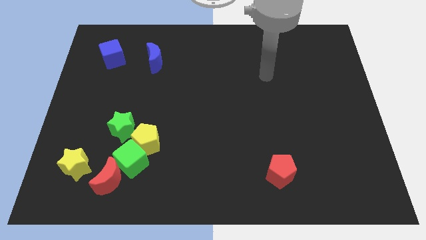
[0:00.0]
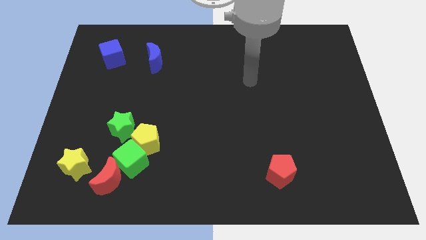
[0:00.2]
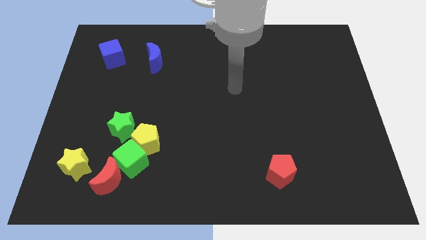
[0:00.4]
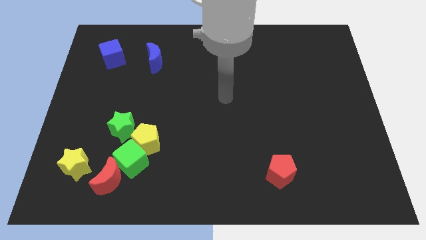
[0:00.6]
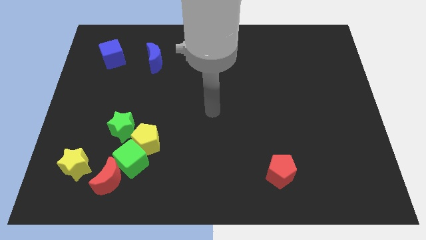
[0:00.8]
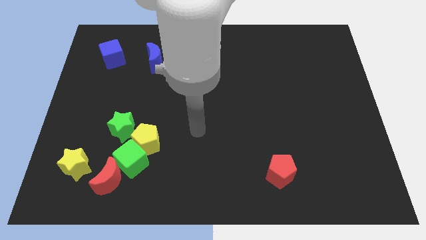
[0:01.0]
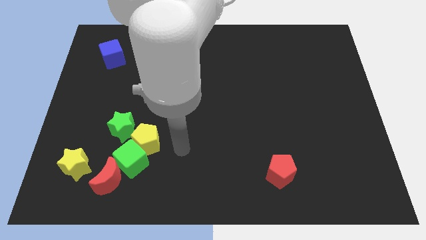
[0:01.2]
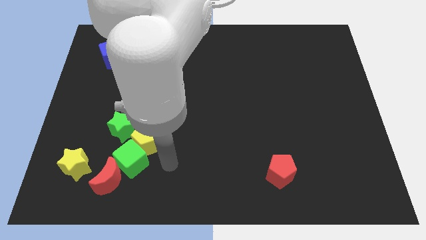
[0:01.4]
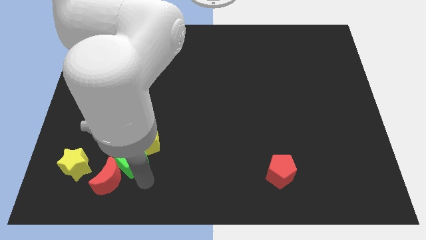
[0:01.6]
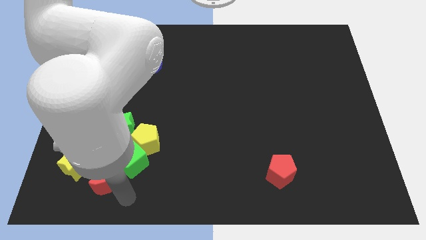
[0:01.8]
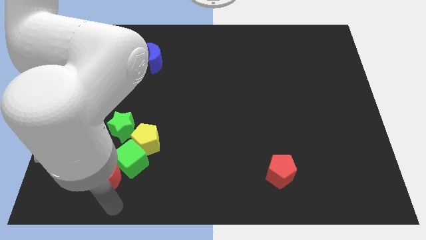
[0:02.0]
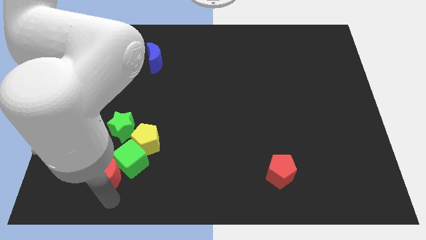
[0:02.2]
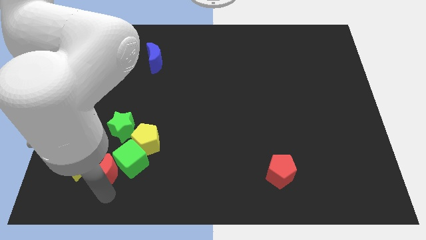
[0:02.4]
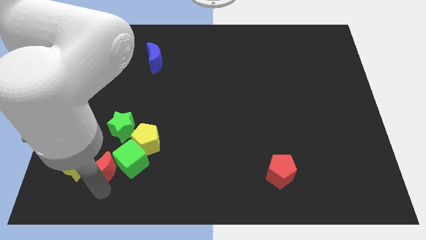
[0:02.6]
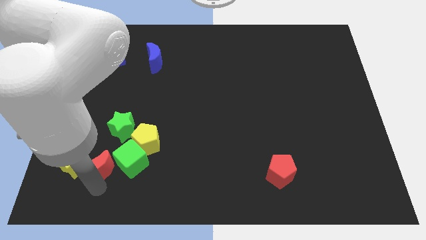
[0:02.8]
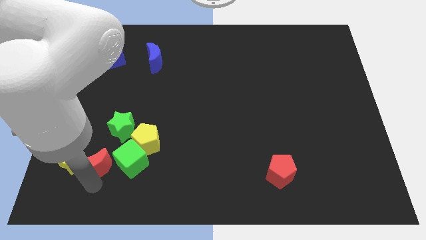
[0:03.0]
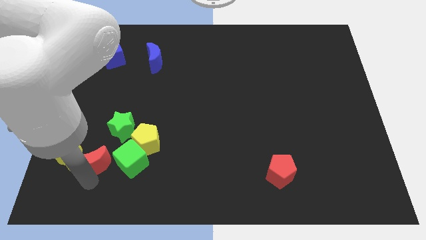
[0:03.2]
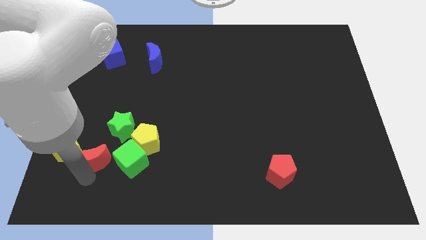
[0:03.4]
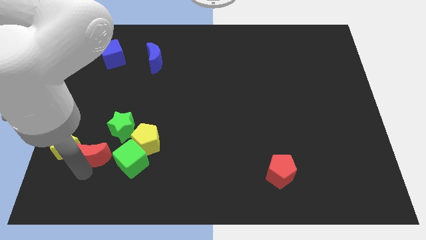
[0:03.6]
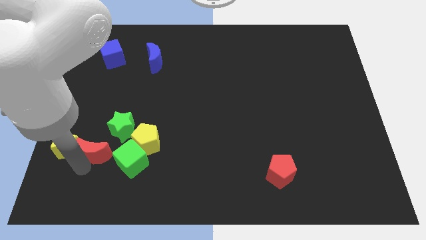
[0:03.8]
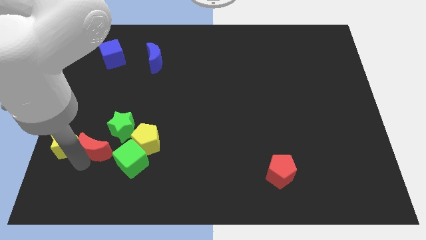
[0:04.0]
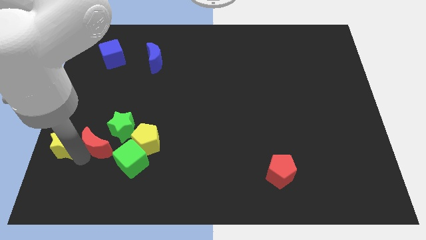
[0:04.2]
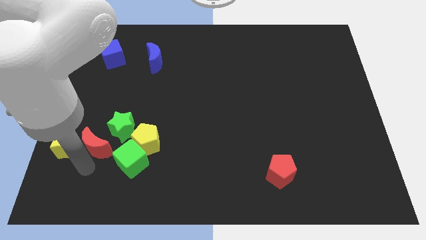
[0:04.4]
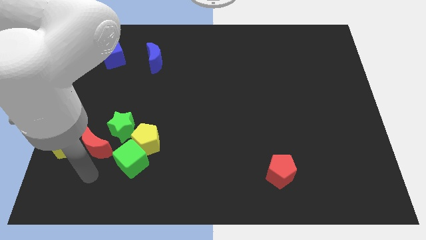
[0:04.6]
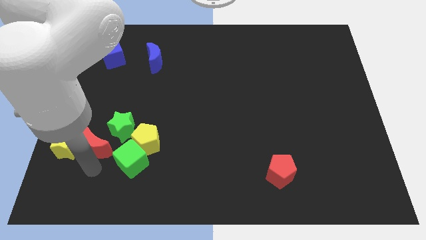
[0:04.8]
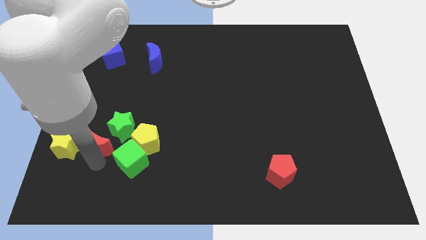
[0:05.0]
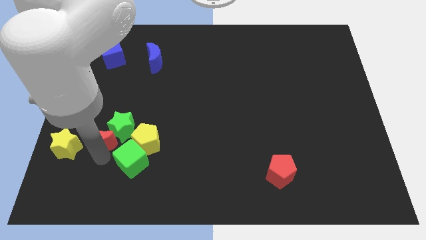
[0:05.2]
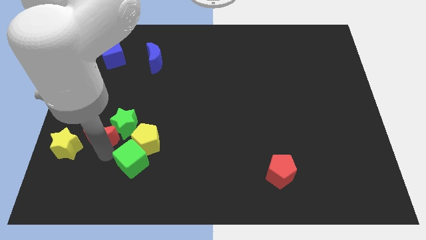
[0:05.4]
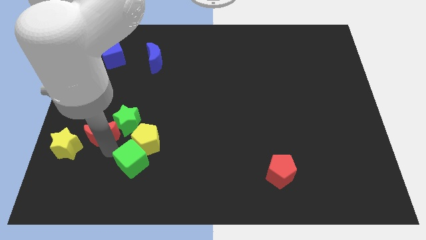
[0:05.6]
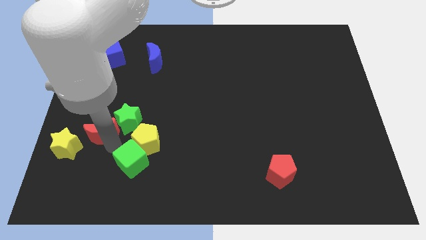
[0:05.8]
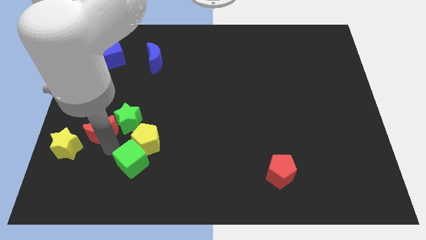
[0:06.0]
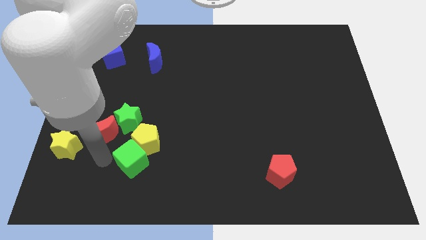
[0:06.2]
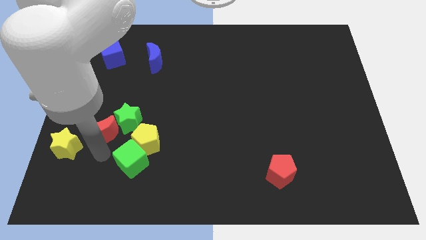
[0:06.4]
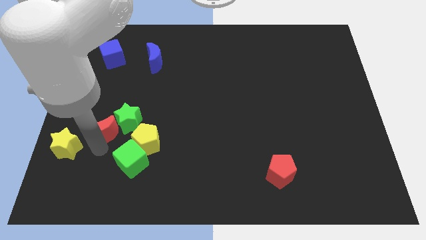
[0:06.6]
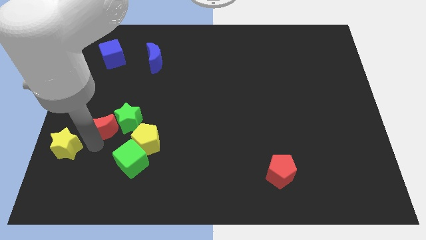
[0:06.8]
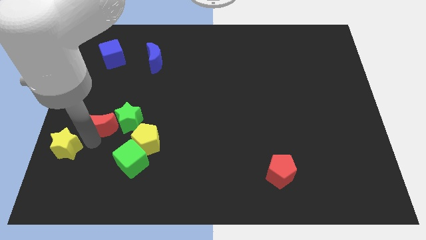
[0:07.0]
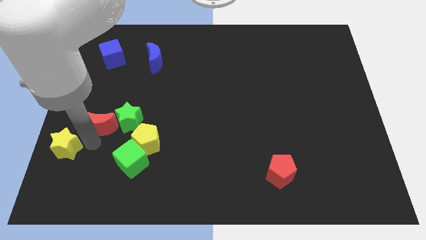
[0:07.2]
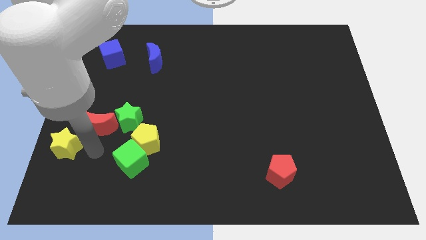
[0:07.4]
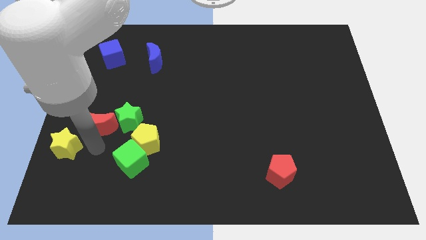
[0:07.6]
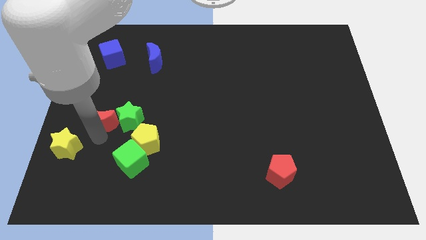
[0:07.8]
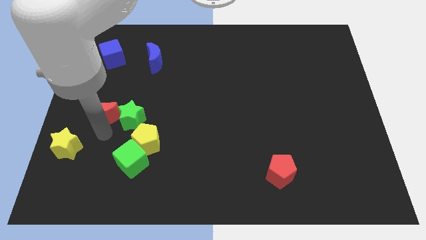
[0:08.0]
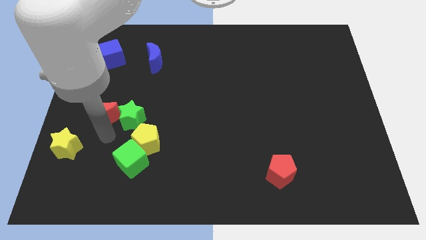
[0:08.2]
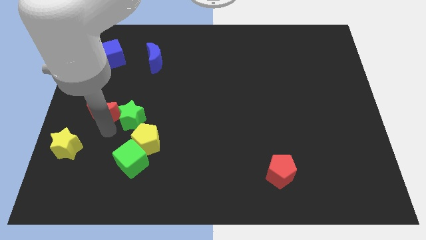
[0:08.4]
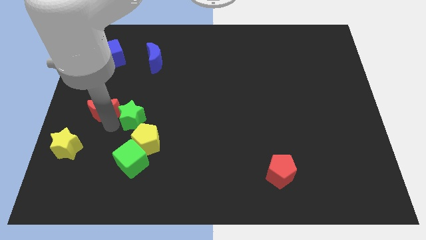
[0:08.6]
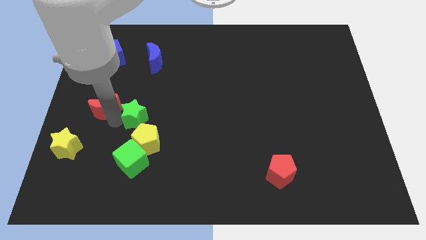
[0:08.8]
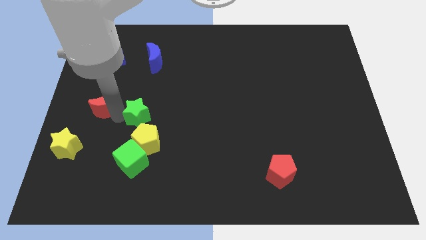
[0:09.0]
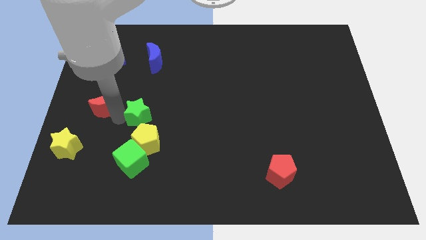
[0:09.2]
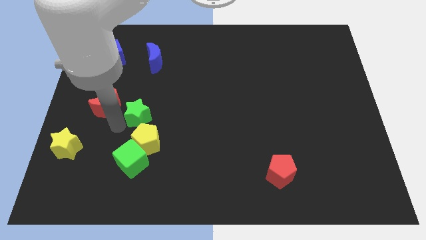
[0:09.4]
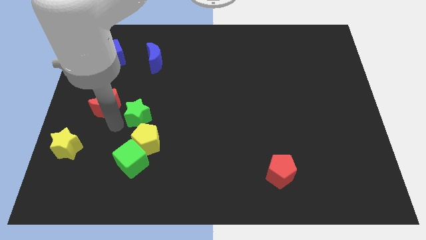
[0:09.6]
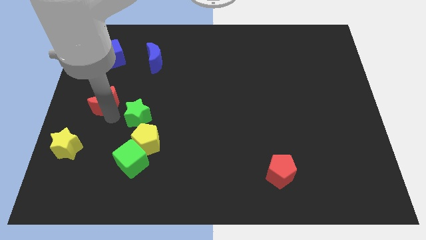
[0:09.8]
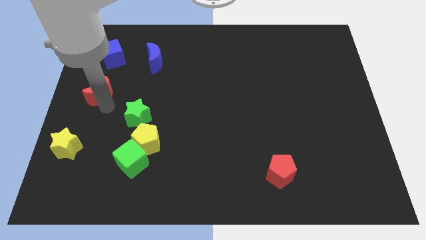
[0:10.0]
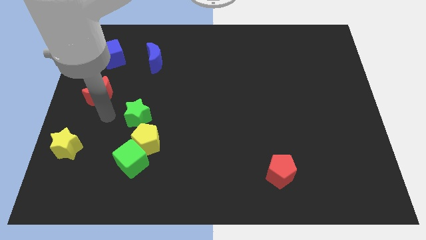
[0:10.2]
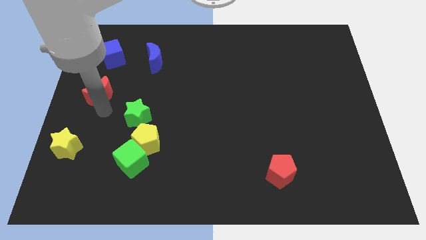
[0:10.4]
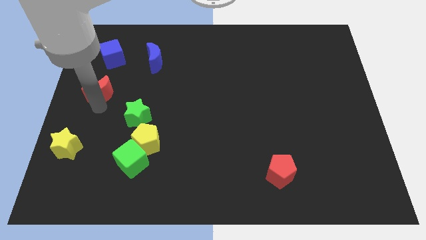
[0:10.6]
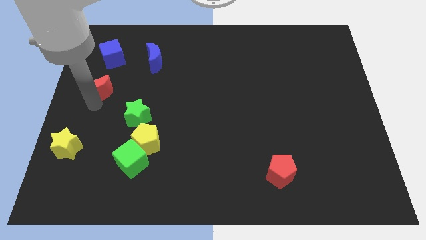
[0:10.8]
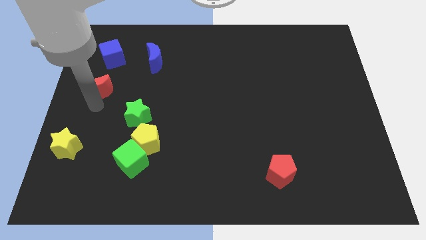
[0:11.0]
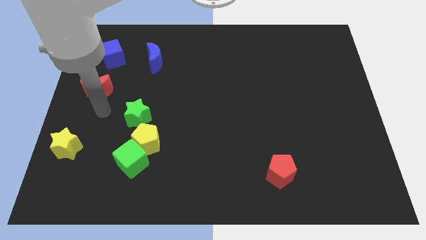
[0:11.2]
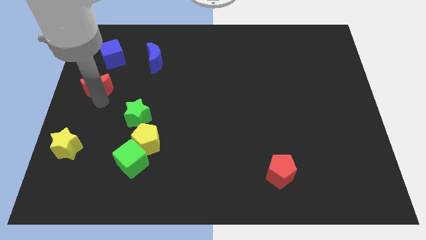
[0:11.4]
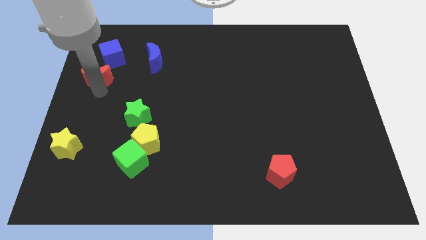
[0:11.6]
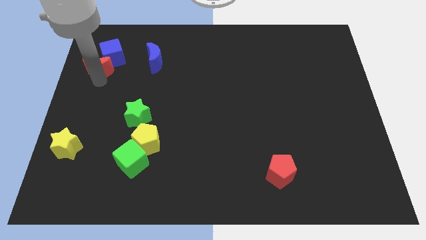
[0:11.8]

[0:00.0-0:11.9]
slide the red moon to the left side of the blue moon

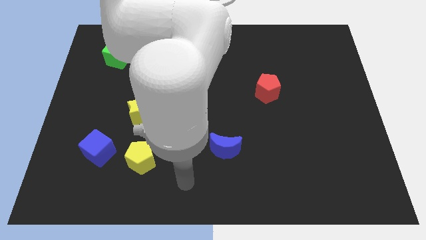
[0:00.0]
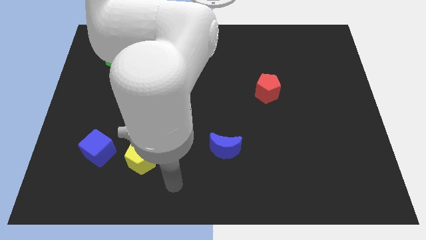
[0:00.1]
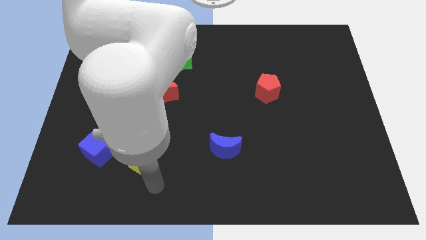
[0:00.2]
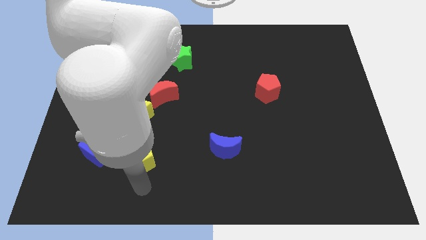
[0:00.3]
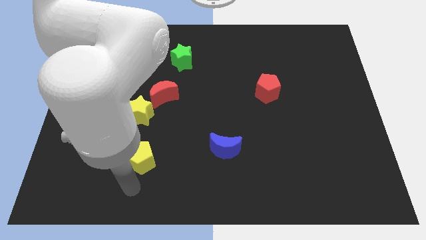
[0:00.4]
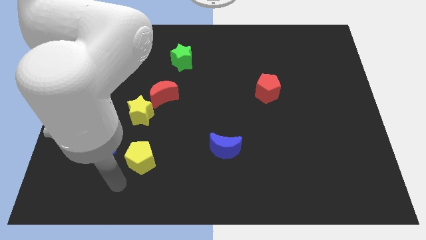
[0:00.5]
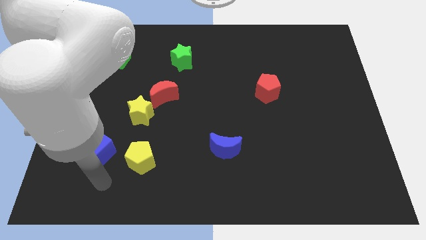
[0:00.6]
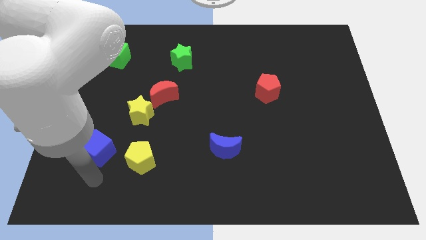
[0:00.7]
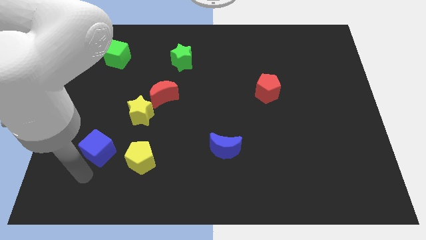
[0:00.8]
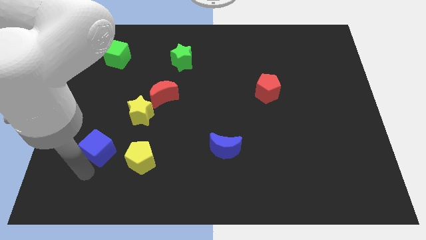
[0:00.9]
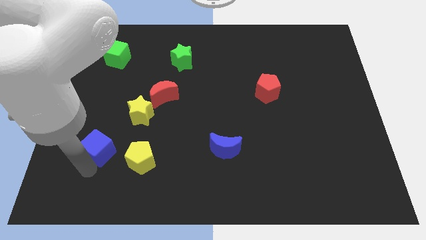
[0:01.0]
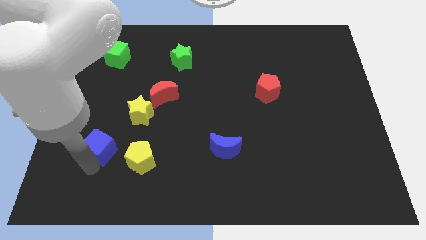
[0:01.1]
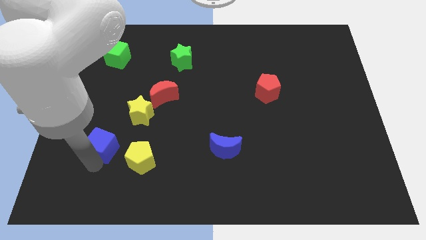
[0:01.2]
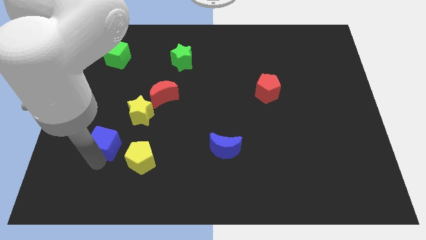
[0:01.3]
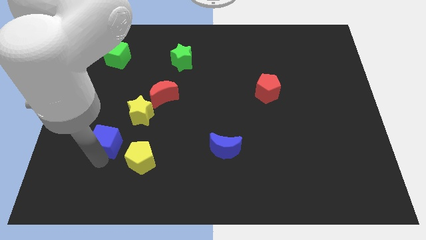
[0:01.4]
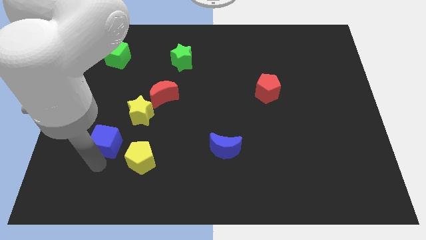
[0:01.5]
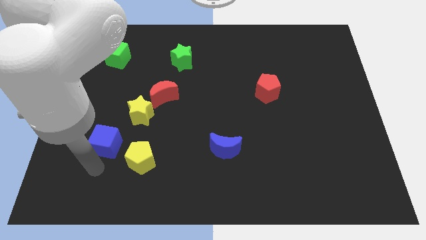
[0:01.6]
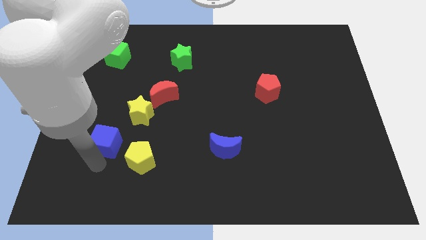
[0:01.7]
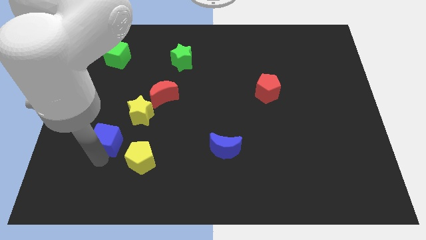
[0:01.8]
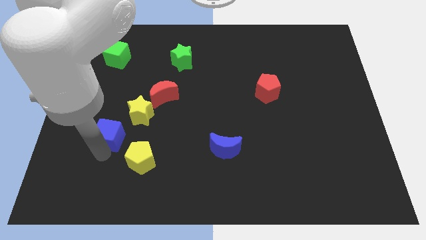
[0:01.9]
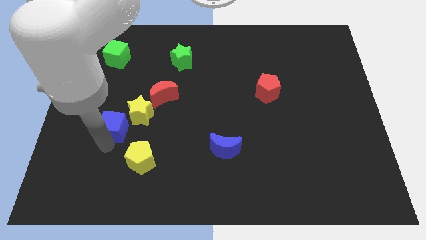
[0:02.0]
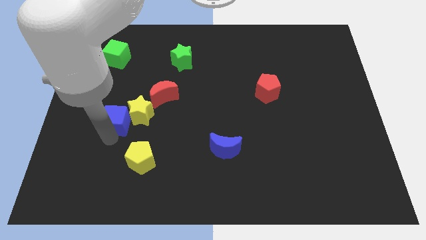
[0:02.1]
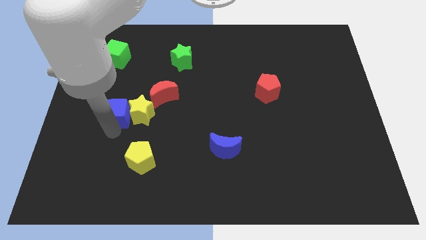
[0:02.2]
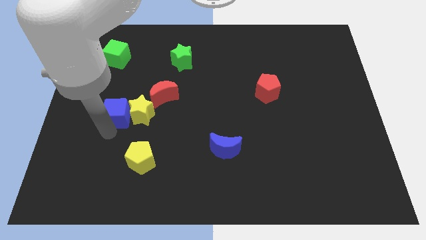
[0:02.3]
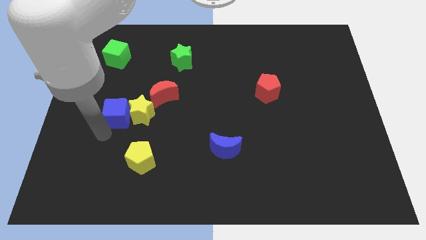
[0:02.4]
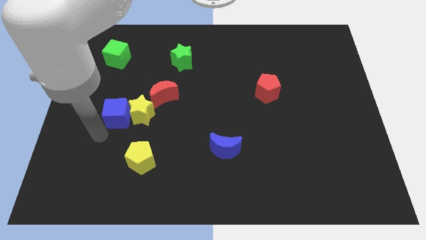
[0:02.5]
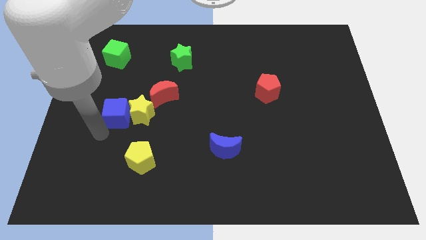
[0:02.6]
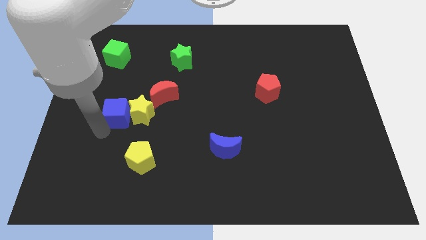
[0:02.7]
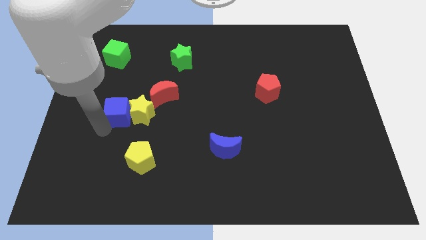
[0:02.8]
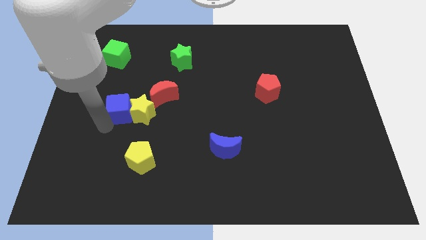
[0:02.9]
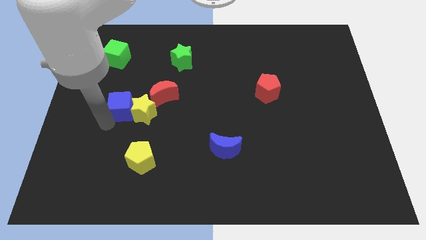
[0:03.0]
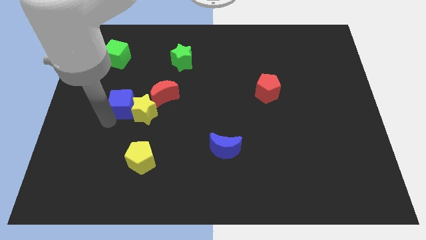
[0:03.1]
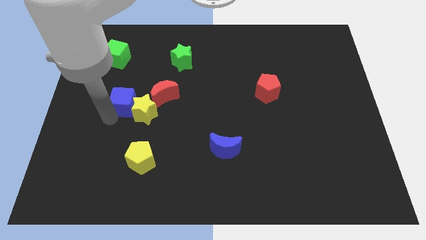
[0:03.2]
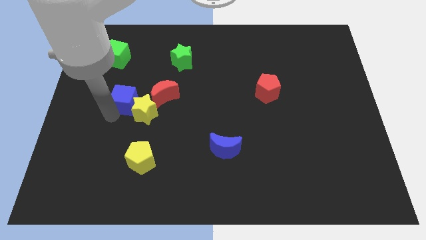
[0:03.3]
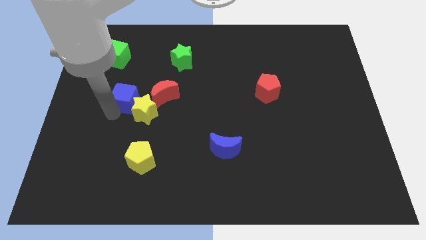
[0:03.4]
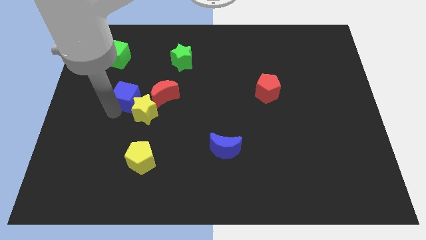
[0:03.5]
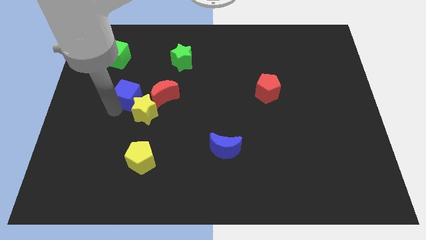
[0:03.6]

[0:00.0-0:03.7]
slide the blue cube to the top side of the yellow star
